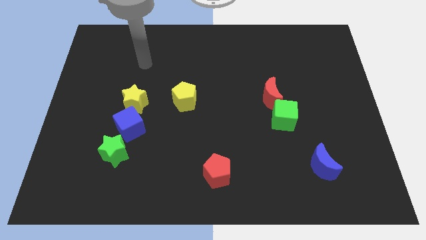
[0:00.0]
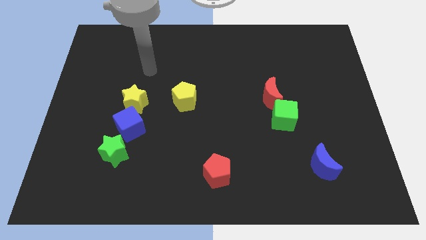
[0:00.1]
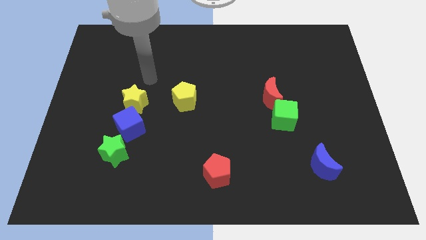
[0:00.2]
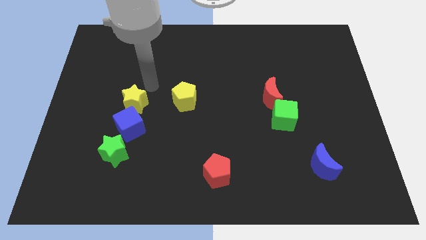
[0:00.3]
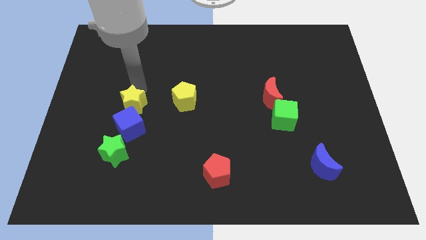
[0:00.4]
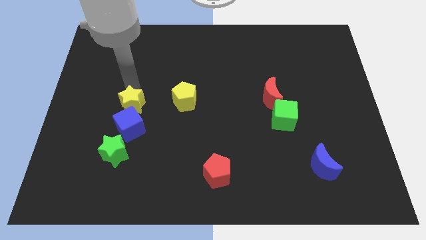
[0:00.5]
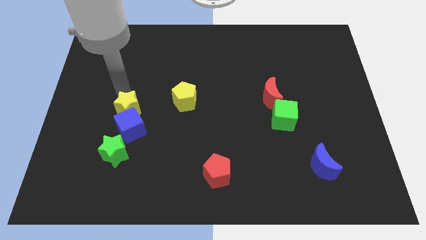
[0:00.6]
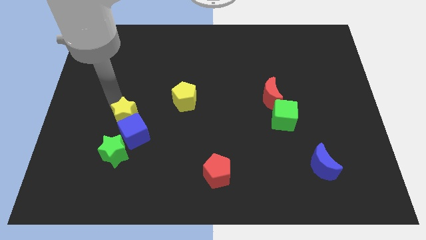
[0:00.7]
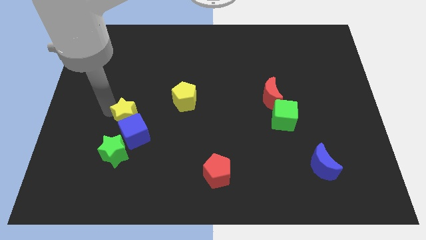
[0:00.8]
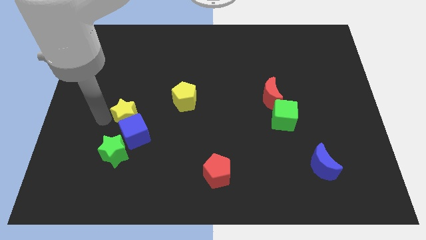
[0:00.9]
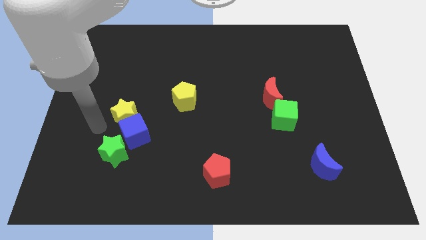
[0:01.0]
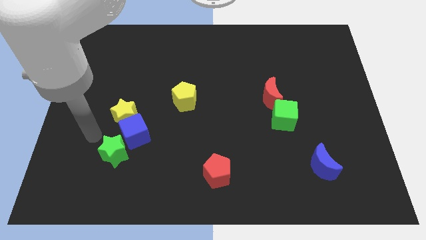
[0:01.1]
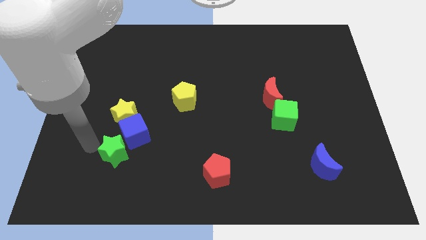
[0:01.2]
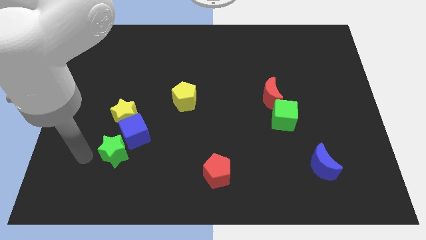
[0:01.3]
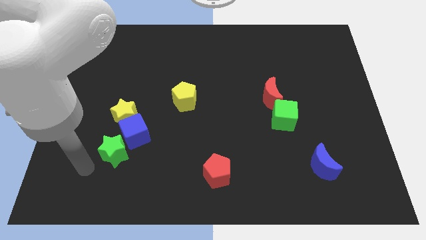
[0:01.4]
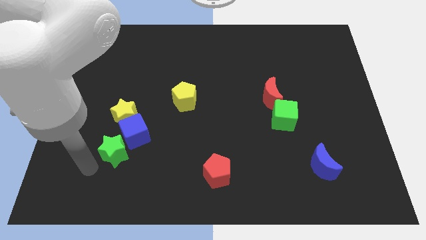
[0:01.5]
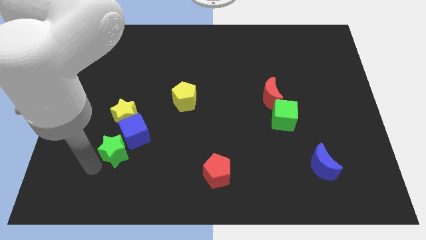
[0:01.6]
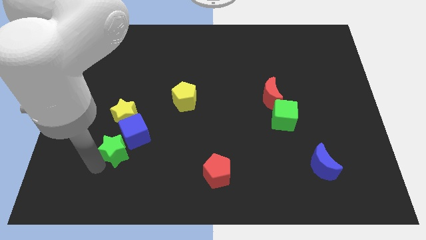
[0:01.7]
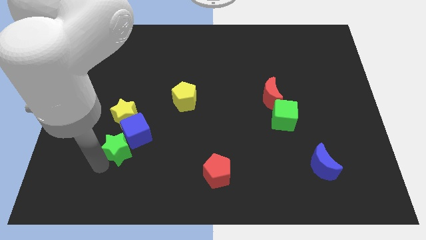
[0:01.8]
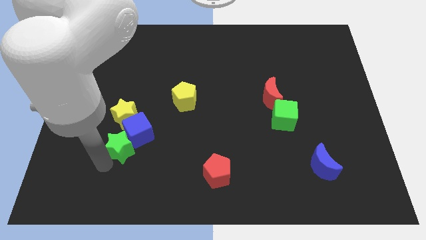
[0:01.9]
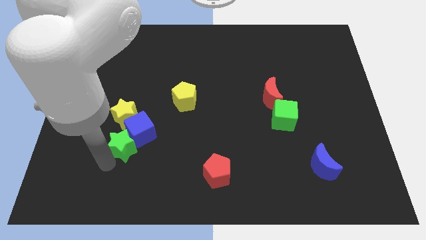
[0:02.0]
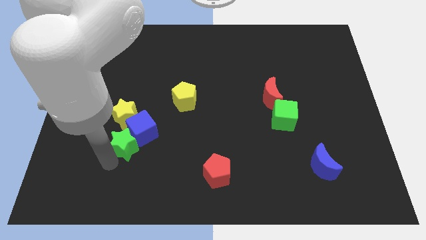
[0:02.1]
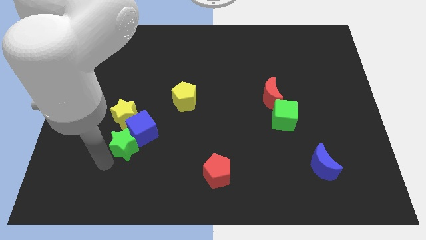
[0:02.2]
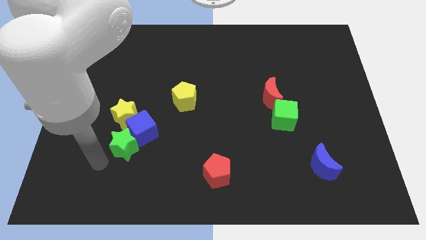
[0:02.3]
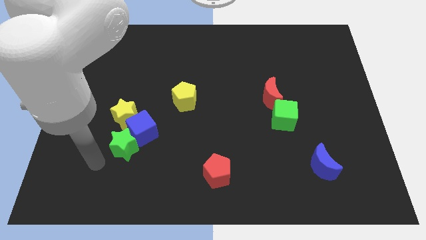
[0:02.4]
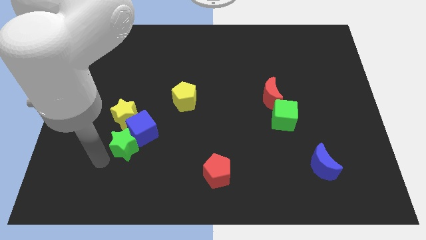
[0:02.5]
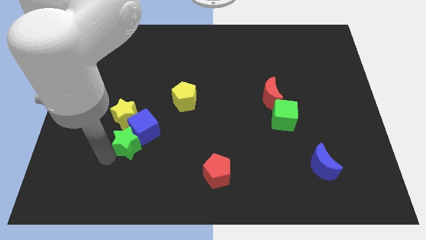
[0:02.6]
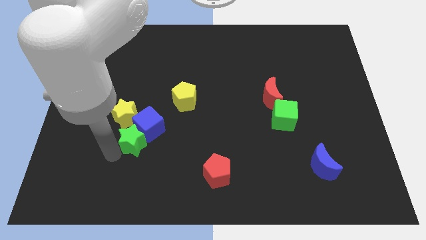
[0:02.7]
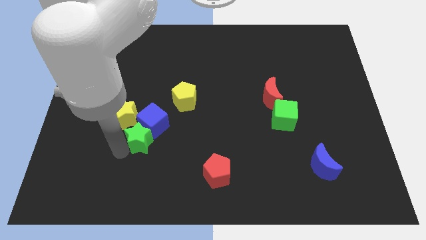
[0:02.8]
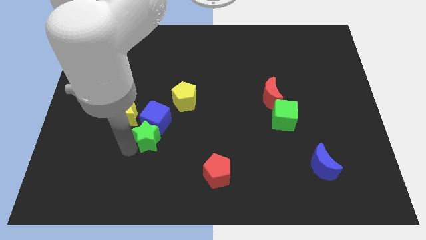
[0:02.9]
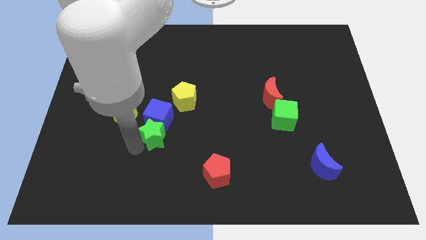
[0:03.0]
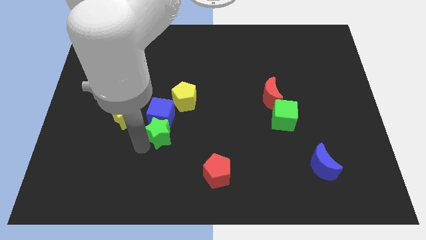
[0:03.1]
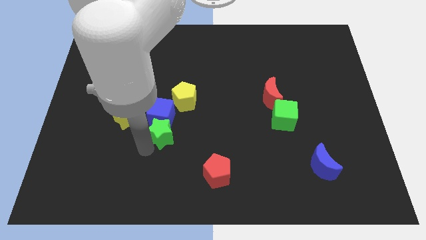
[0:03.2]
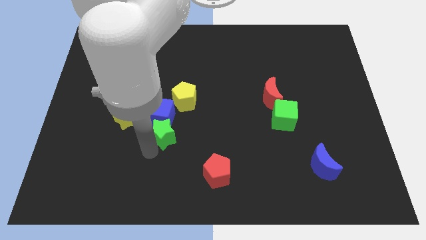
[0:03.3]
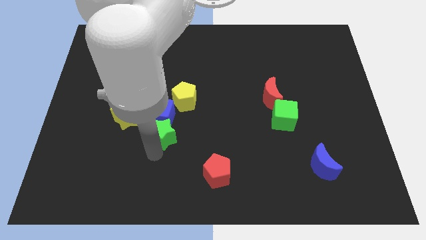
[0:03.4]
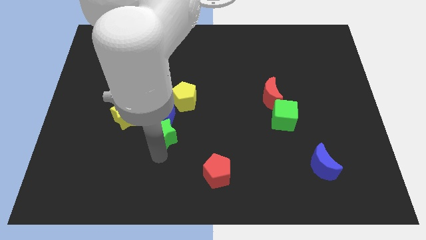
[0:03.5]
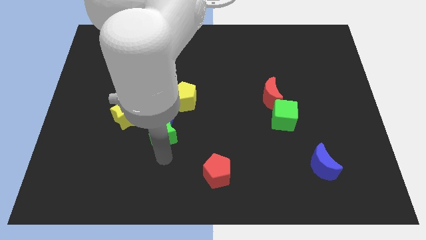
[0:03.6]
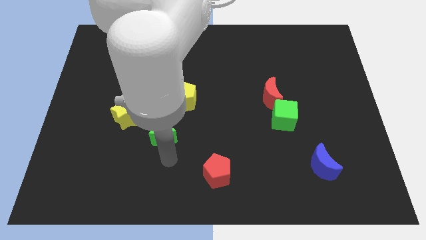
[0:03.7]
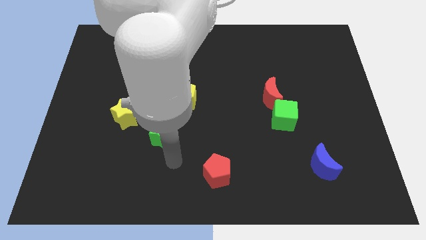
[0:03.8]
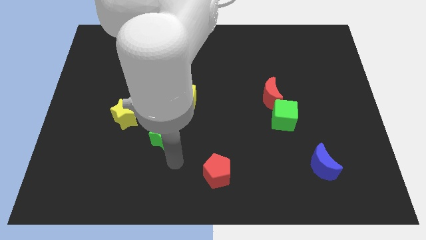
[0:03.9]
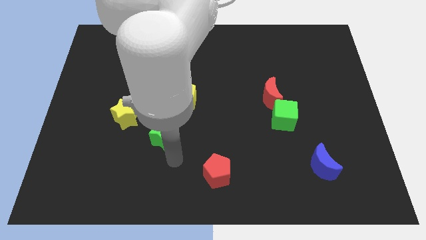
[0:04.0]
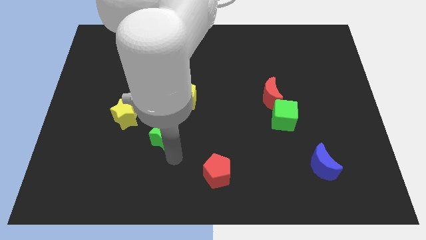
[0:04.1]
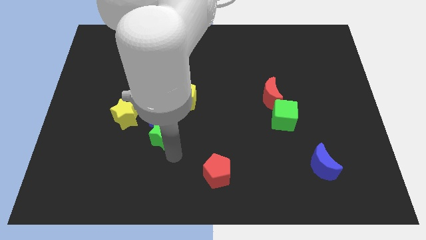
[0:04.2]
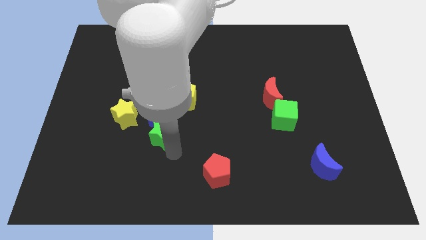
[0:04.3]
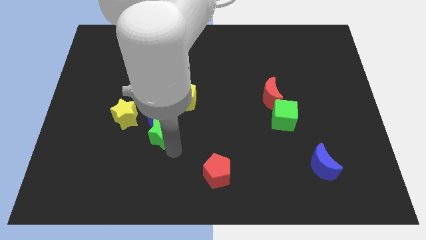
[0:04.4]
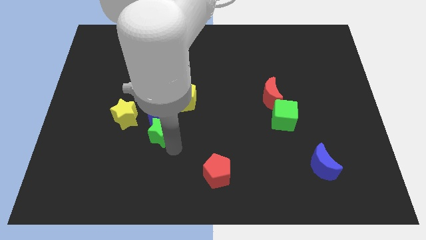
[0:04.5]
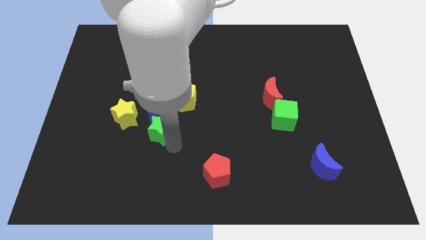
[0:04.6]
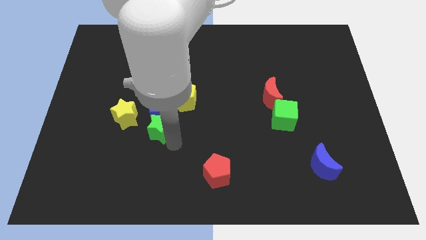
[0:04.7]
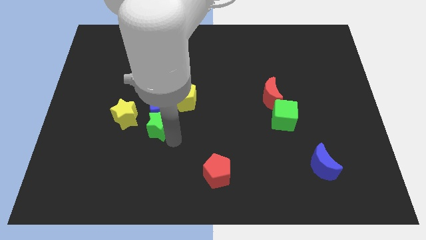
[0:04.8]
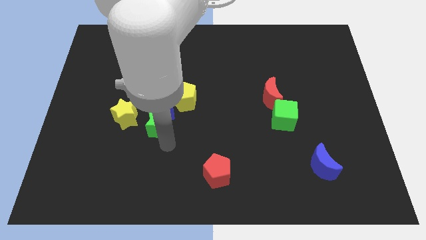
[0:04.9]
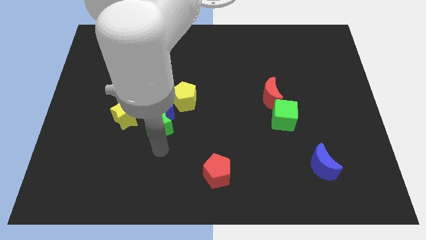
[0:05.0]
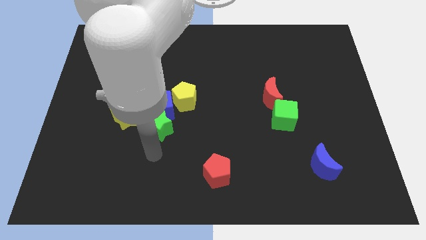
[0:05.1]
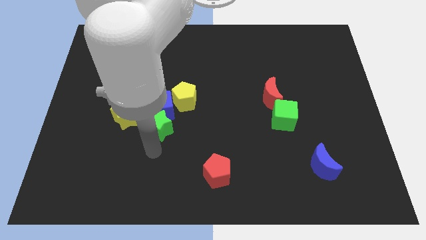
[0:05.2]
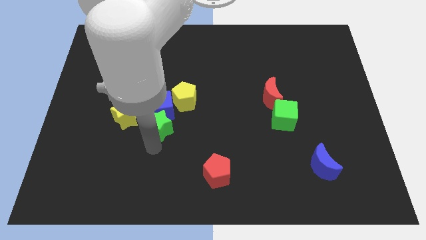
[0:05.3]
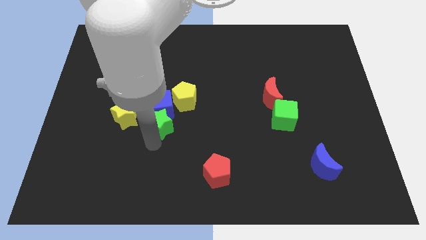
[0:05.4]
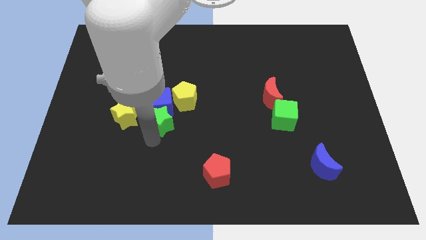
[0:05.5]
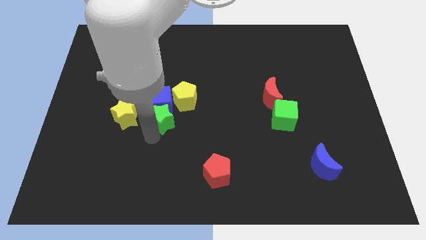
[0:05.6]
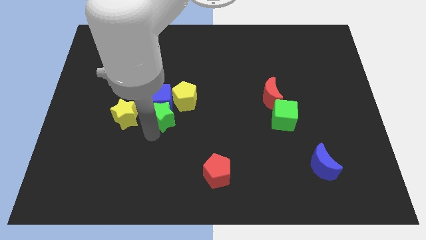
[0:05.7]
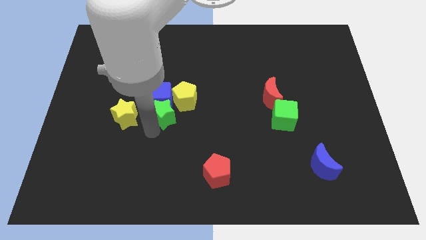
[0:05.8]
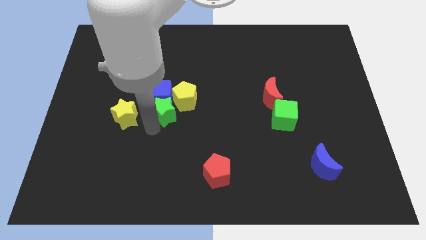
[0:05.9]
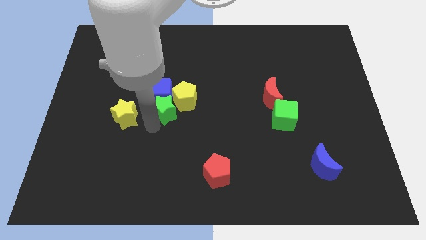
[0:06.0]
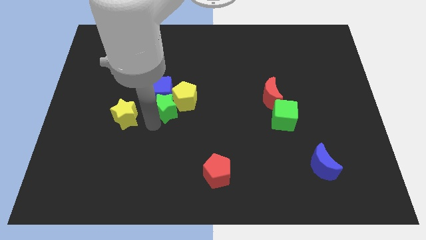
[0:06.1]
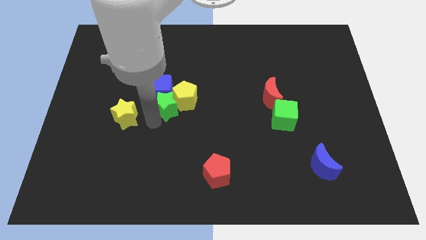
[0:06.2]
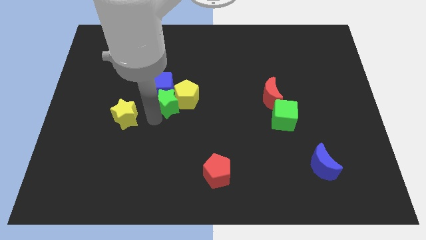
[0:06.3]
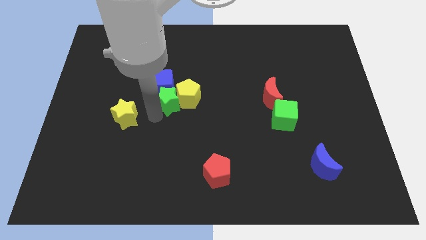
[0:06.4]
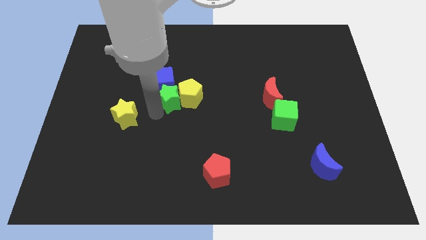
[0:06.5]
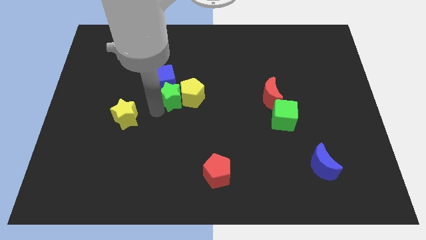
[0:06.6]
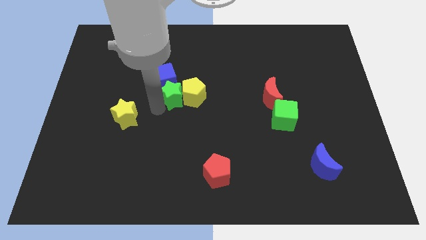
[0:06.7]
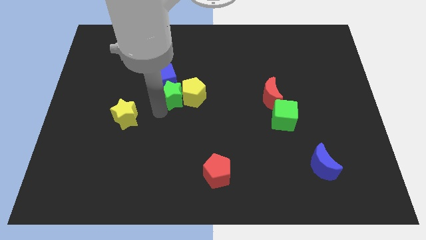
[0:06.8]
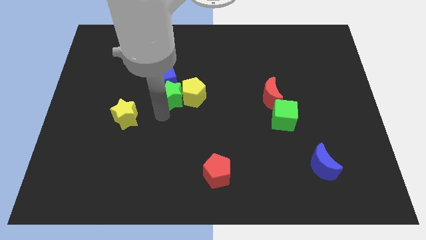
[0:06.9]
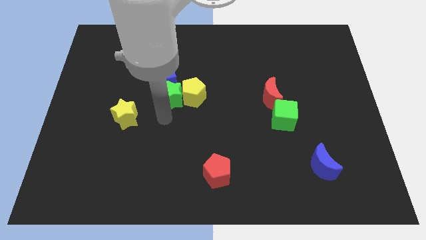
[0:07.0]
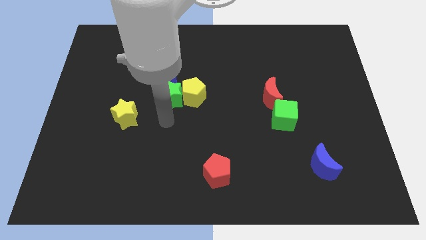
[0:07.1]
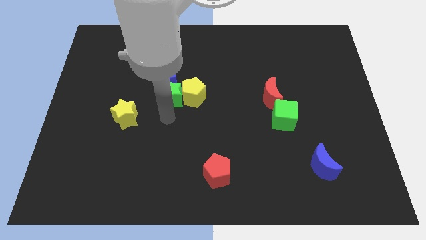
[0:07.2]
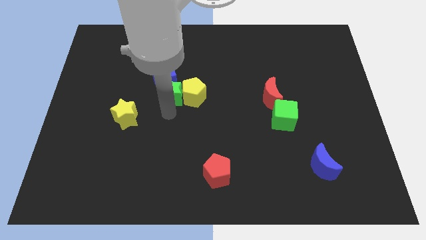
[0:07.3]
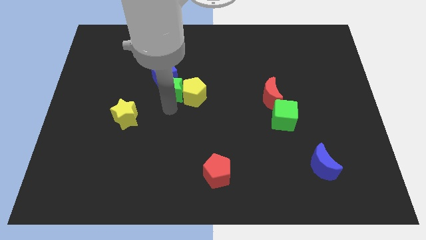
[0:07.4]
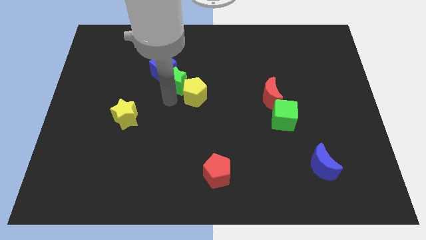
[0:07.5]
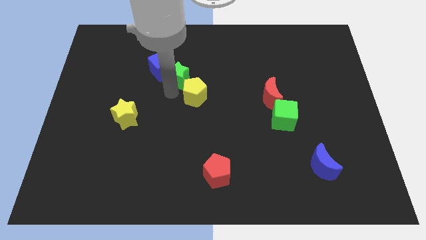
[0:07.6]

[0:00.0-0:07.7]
slide the green star to the top side of the yellow pentagon
